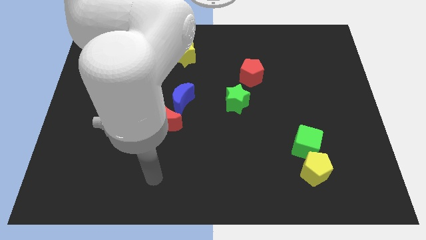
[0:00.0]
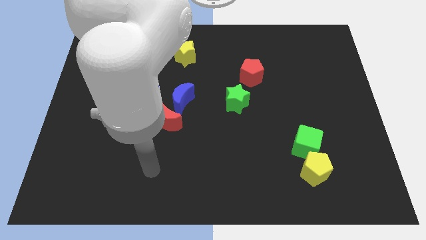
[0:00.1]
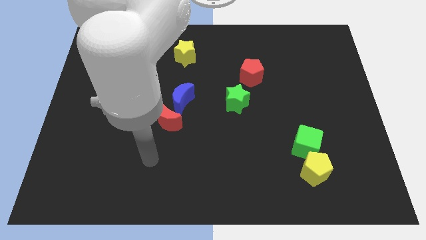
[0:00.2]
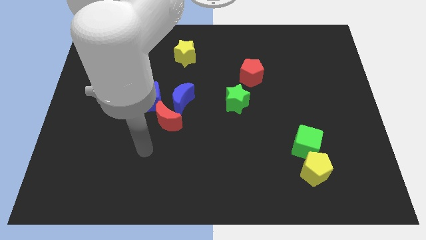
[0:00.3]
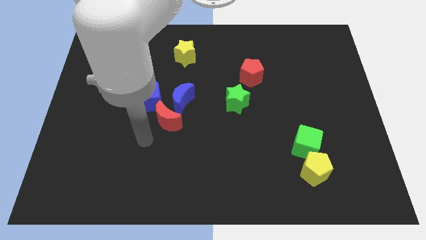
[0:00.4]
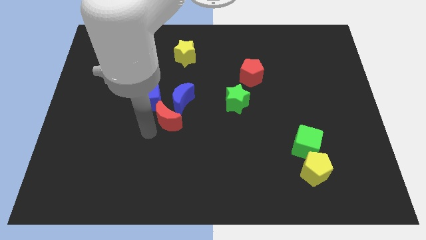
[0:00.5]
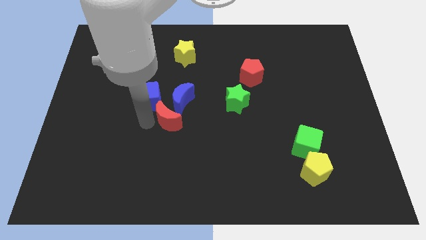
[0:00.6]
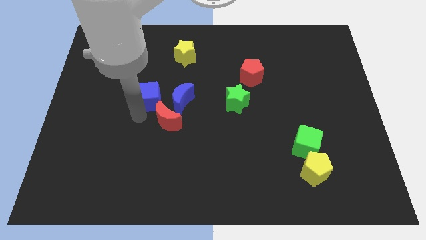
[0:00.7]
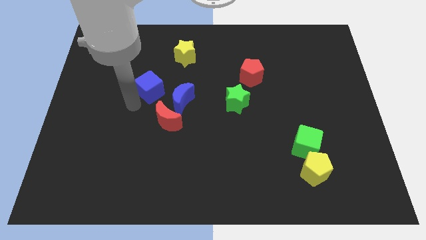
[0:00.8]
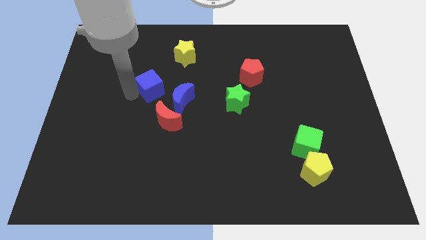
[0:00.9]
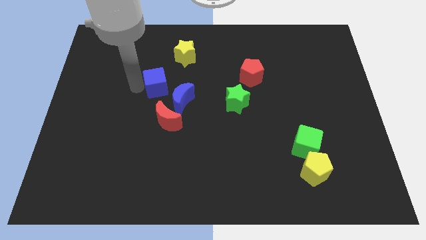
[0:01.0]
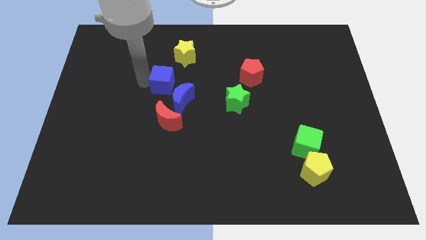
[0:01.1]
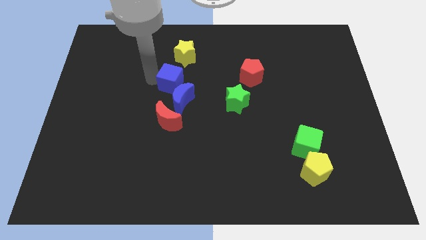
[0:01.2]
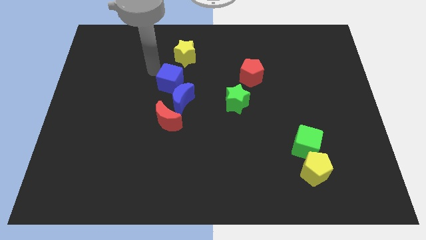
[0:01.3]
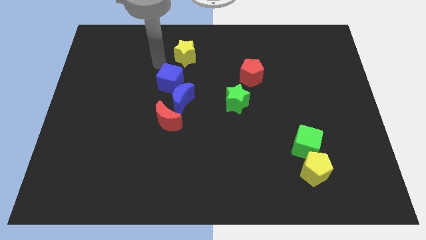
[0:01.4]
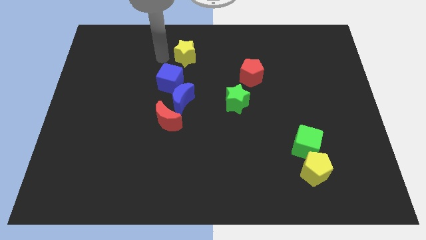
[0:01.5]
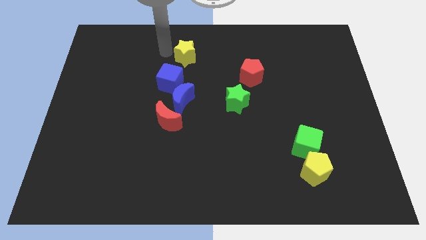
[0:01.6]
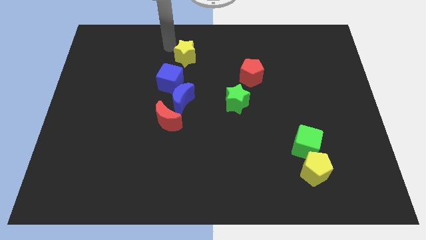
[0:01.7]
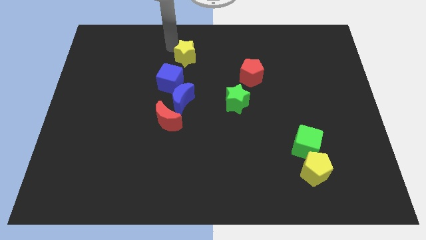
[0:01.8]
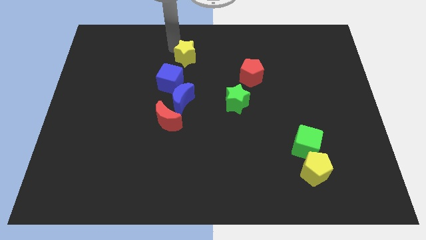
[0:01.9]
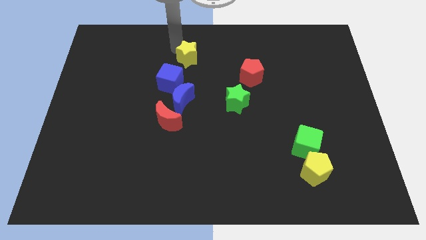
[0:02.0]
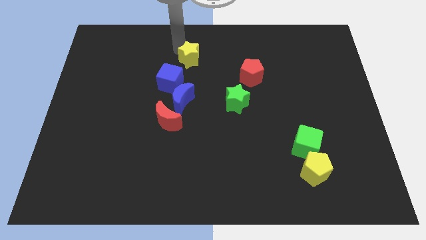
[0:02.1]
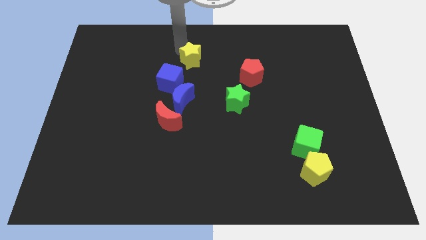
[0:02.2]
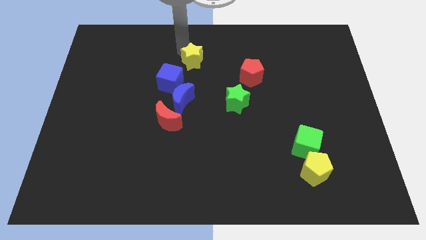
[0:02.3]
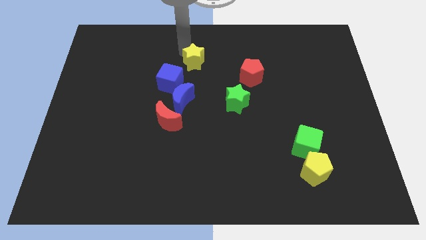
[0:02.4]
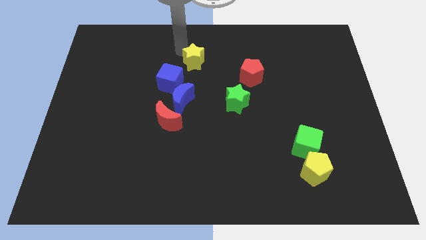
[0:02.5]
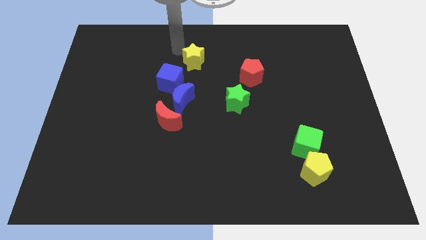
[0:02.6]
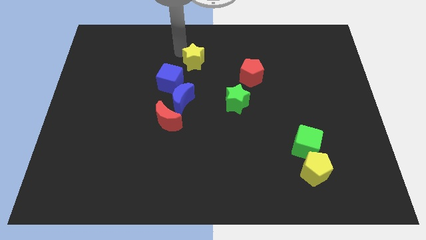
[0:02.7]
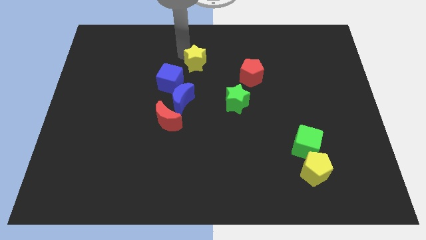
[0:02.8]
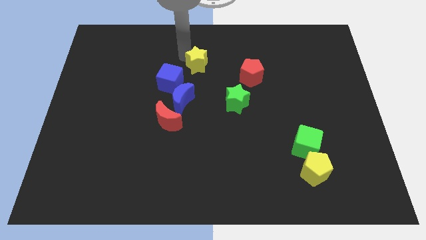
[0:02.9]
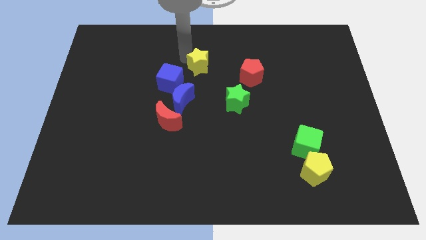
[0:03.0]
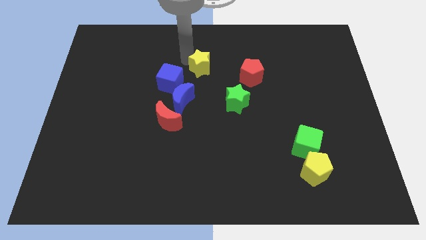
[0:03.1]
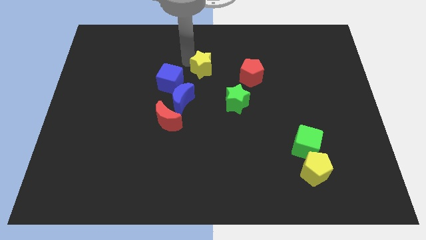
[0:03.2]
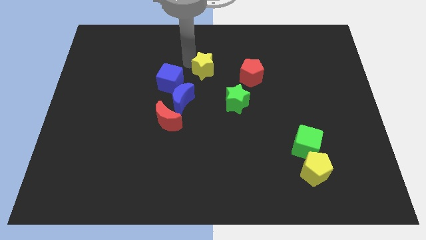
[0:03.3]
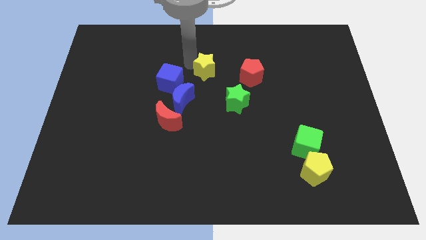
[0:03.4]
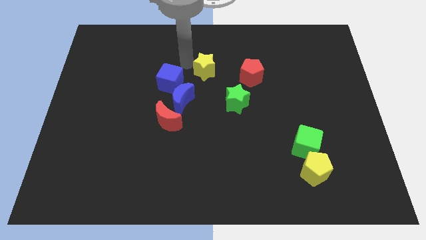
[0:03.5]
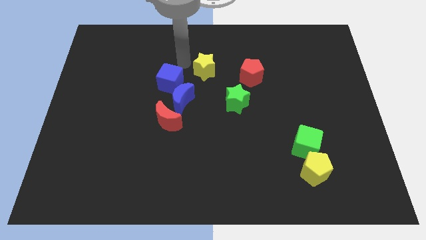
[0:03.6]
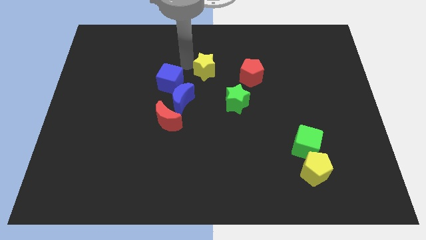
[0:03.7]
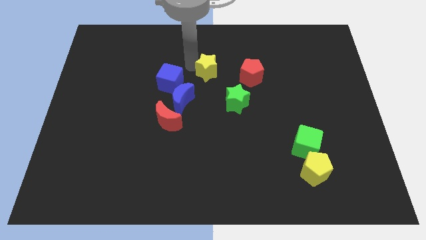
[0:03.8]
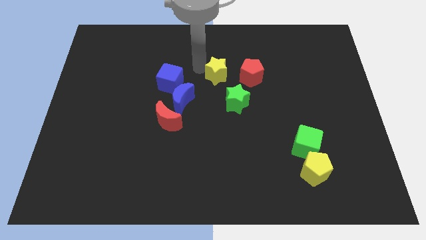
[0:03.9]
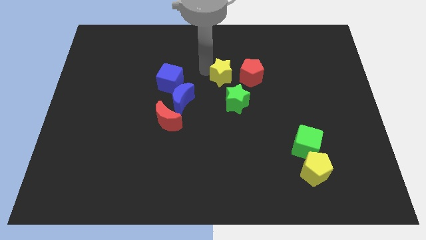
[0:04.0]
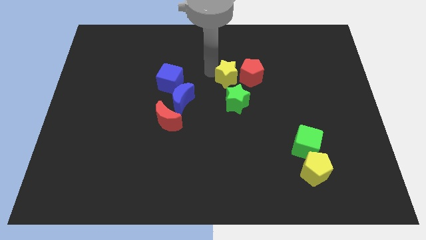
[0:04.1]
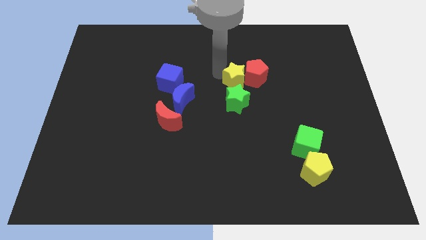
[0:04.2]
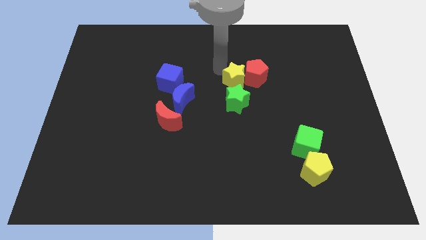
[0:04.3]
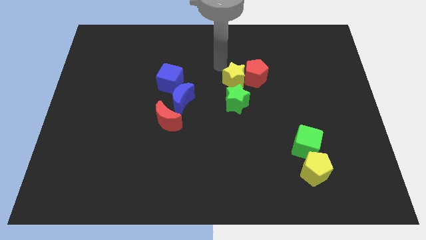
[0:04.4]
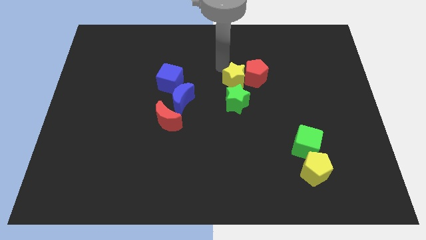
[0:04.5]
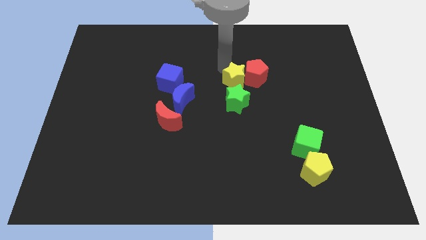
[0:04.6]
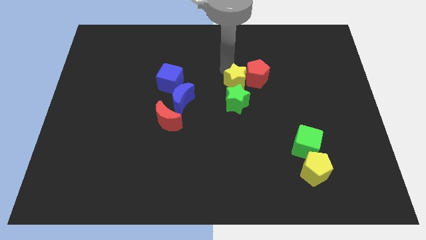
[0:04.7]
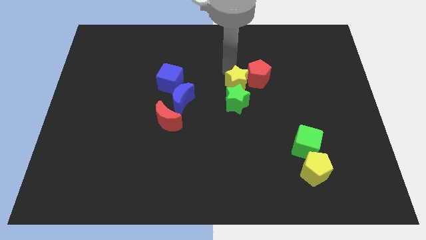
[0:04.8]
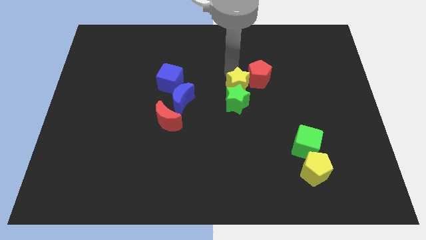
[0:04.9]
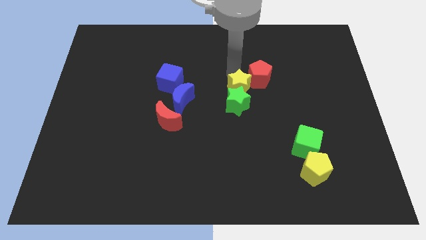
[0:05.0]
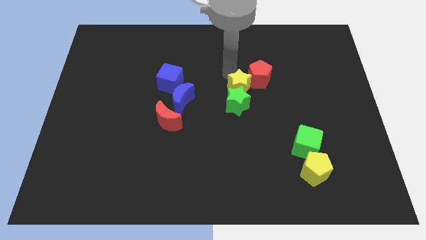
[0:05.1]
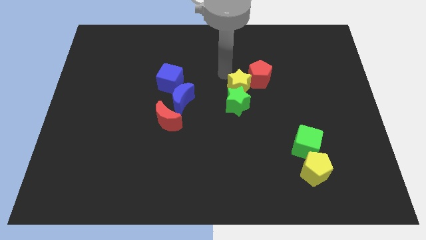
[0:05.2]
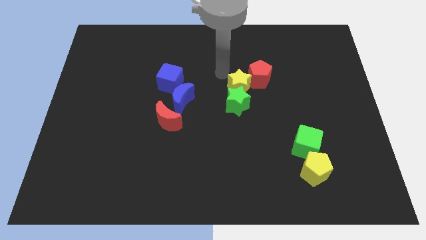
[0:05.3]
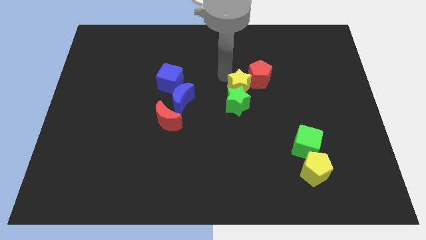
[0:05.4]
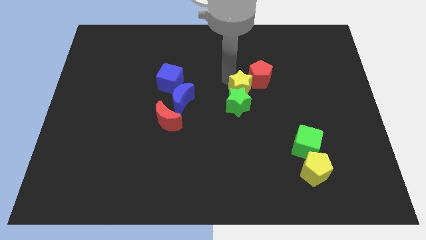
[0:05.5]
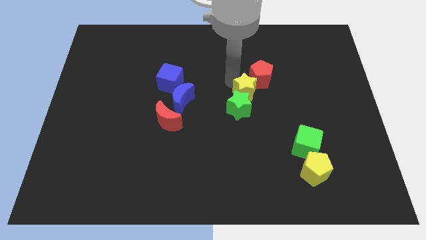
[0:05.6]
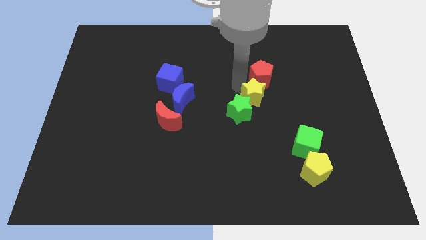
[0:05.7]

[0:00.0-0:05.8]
move the yellow star down and then right

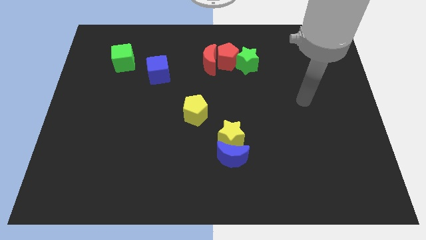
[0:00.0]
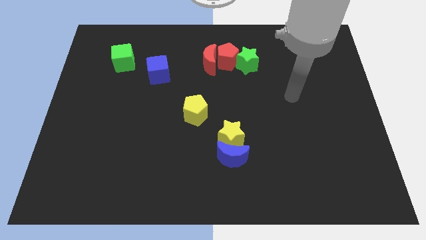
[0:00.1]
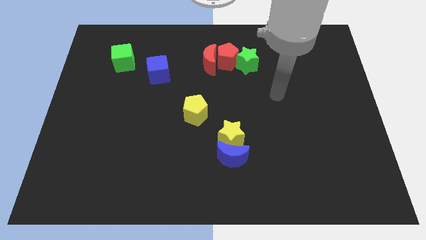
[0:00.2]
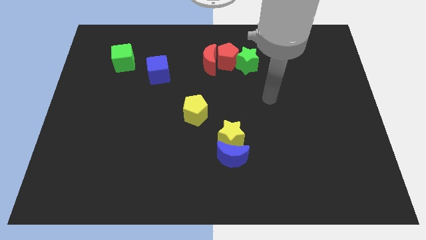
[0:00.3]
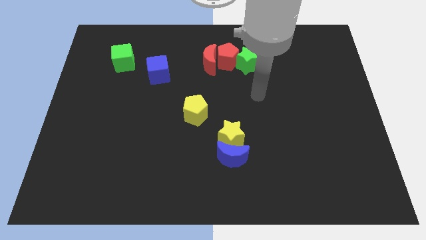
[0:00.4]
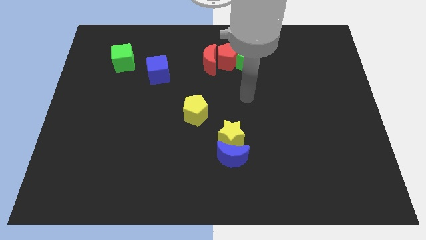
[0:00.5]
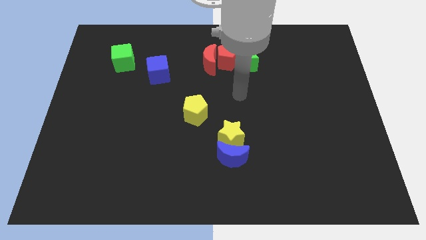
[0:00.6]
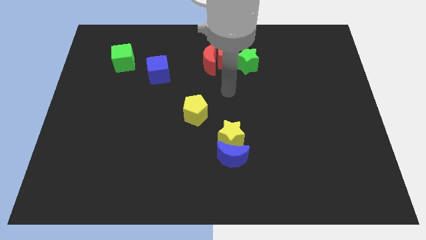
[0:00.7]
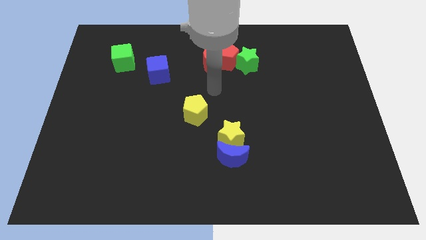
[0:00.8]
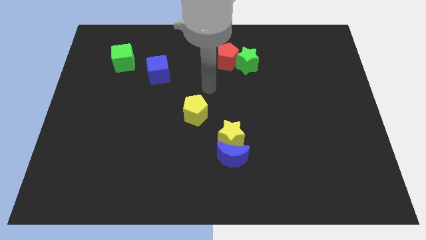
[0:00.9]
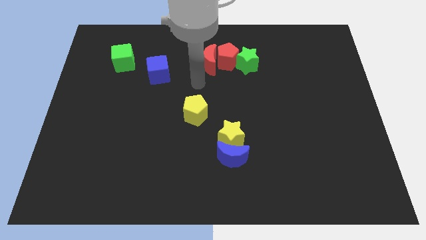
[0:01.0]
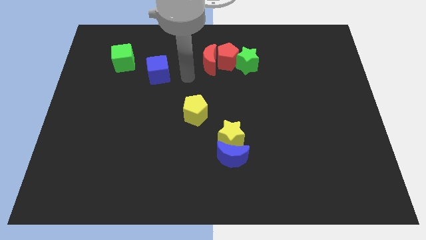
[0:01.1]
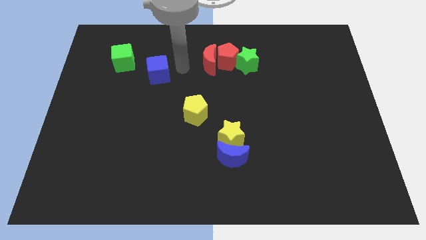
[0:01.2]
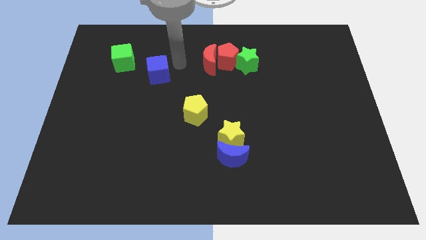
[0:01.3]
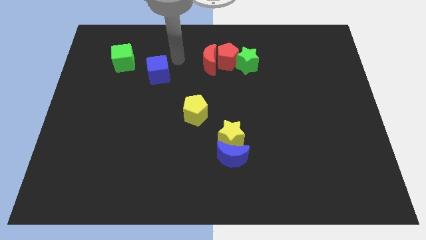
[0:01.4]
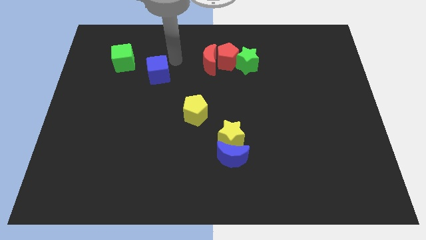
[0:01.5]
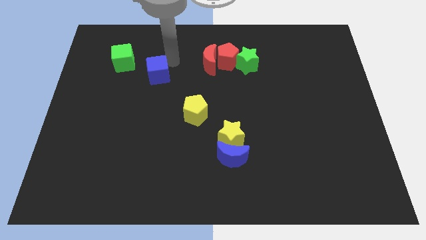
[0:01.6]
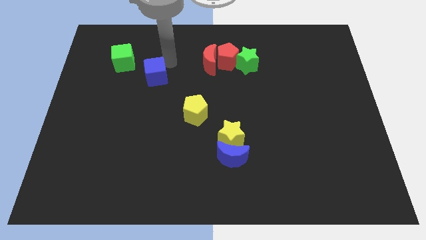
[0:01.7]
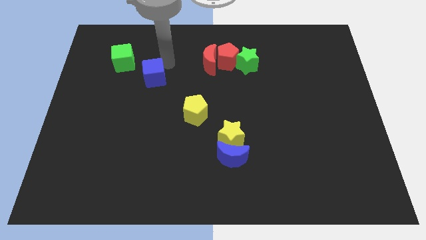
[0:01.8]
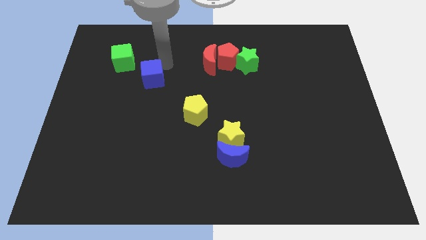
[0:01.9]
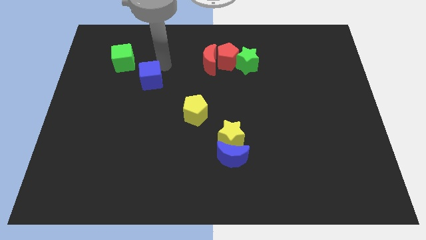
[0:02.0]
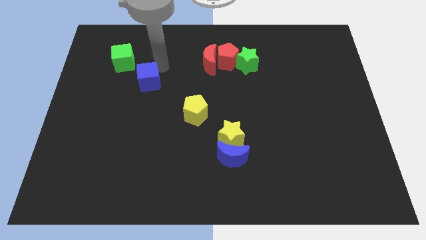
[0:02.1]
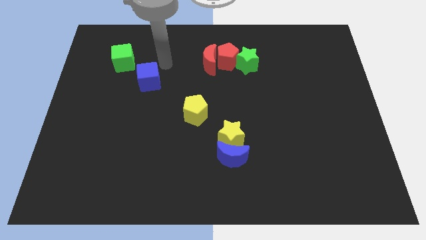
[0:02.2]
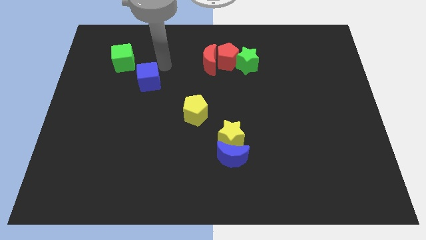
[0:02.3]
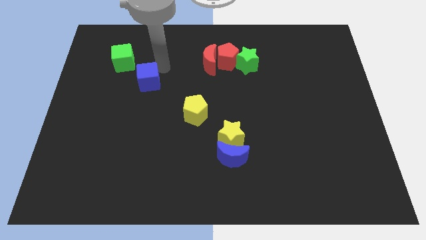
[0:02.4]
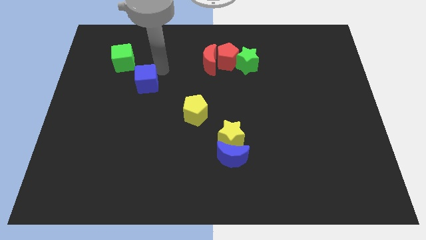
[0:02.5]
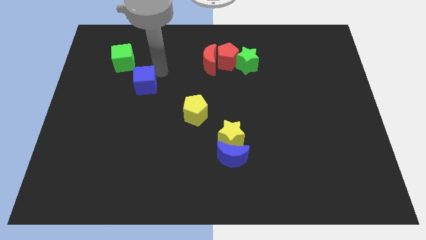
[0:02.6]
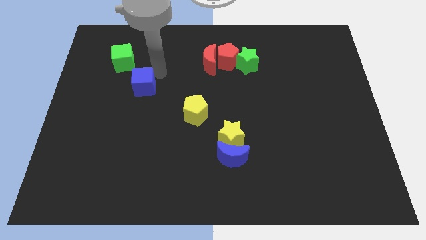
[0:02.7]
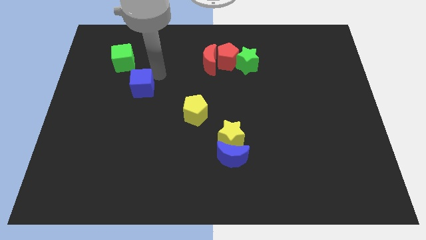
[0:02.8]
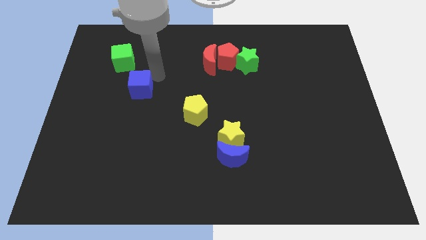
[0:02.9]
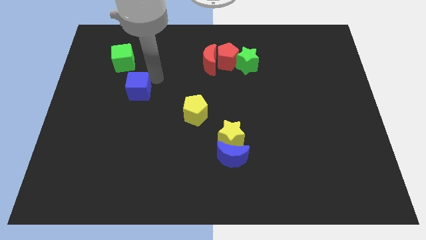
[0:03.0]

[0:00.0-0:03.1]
slightly move the blue cube down and then left
